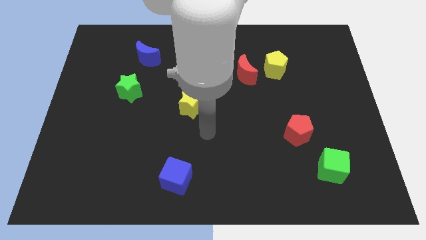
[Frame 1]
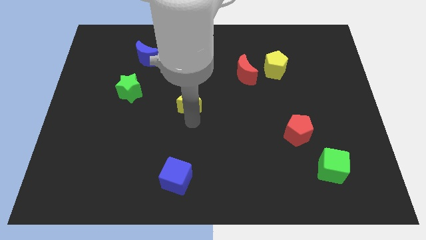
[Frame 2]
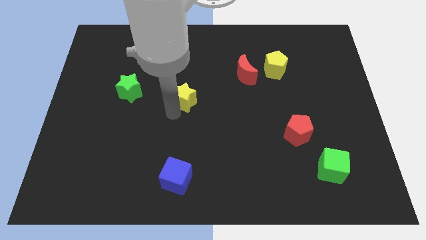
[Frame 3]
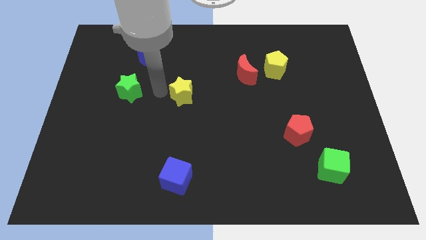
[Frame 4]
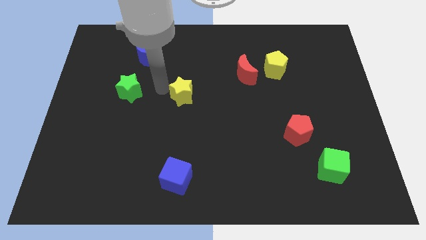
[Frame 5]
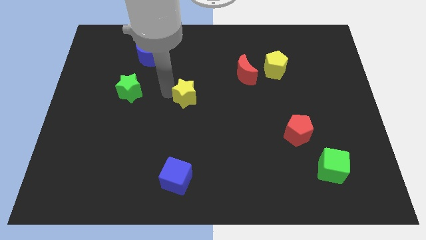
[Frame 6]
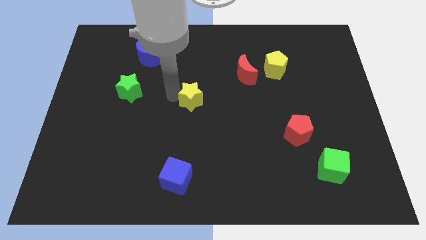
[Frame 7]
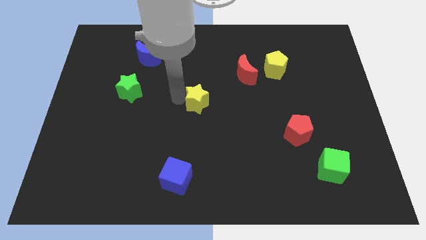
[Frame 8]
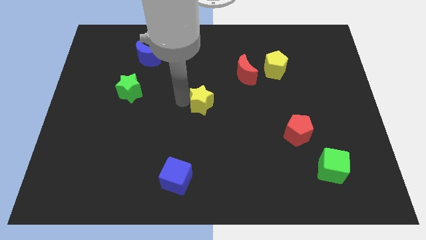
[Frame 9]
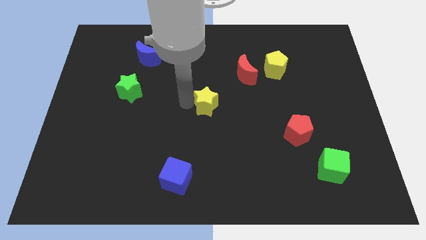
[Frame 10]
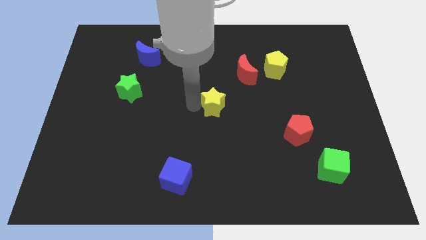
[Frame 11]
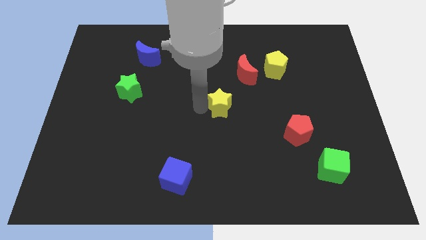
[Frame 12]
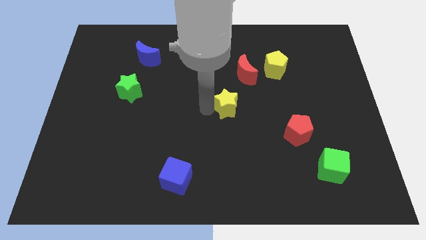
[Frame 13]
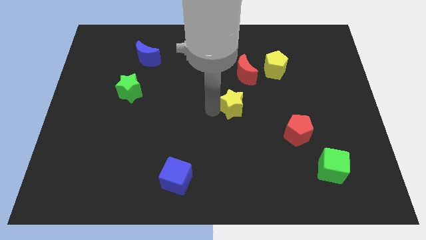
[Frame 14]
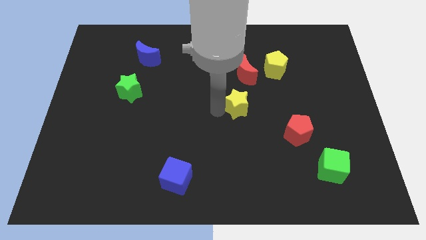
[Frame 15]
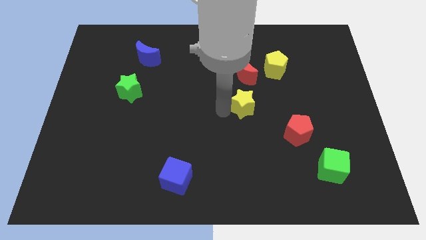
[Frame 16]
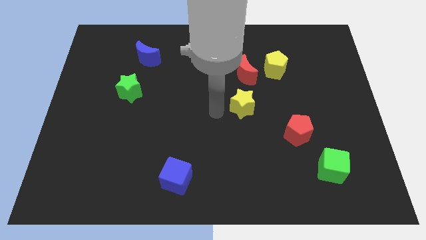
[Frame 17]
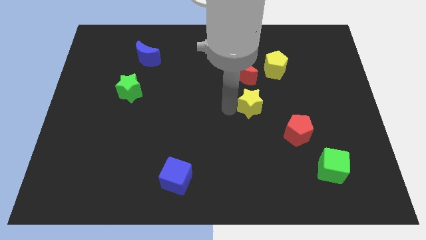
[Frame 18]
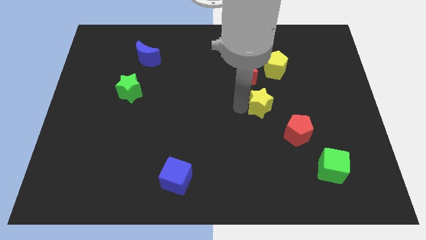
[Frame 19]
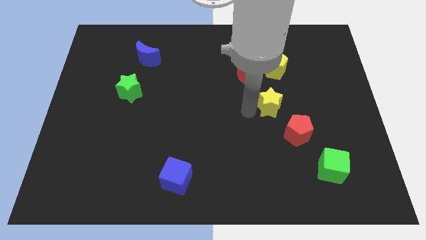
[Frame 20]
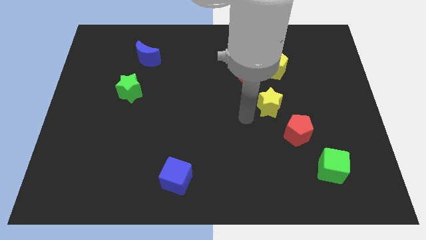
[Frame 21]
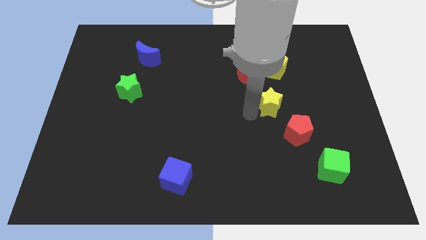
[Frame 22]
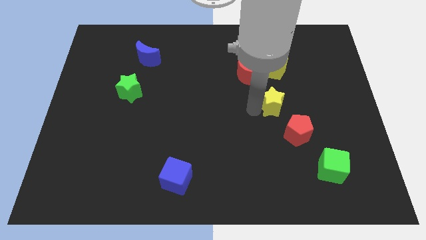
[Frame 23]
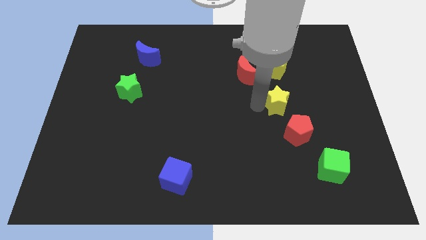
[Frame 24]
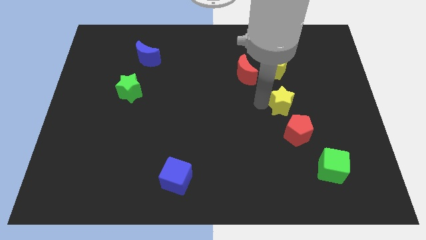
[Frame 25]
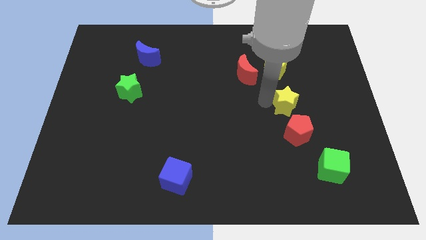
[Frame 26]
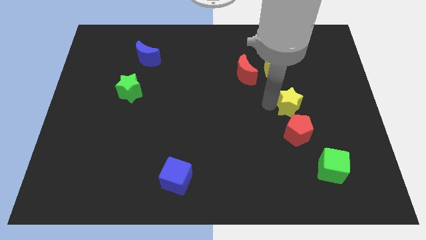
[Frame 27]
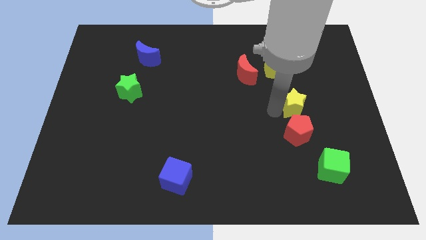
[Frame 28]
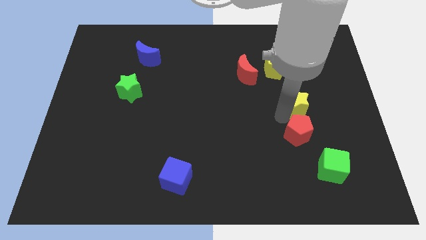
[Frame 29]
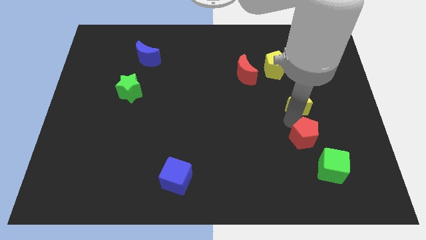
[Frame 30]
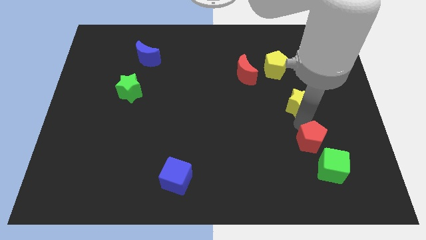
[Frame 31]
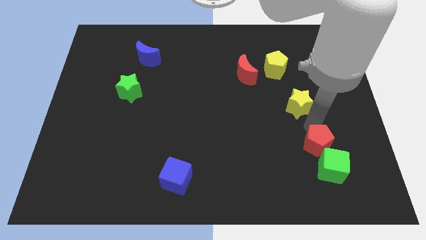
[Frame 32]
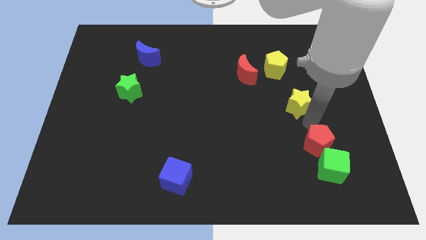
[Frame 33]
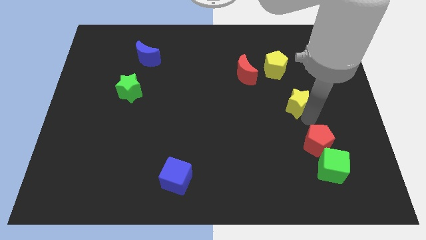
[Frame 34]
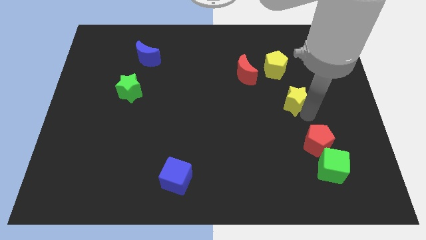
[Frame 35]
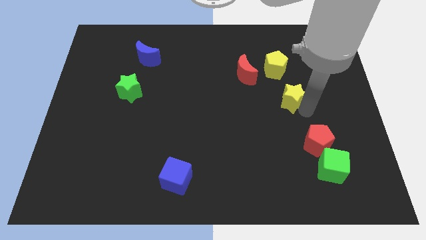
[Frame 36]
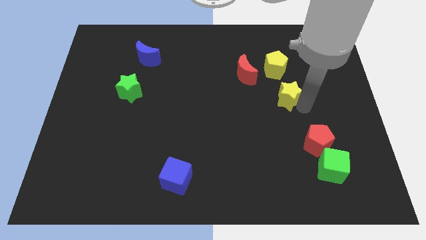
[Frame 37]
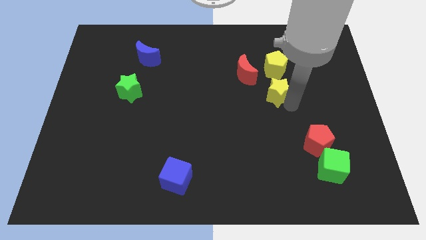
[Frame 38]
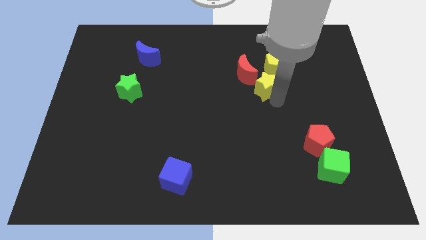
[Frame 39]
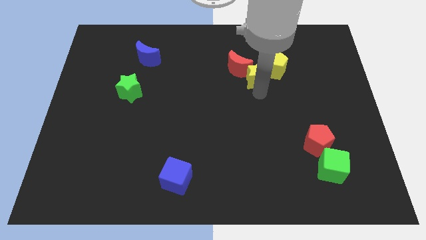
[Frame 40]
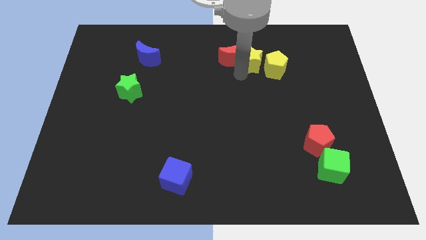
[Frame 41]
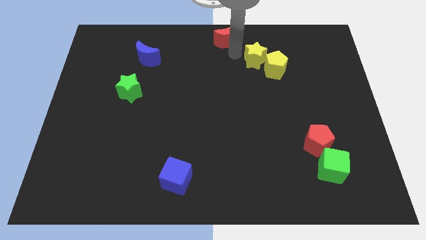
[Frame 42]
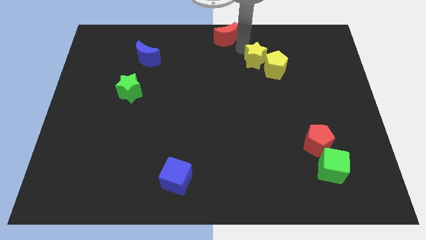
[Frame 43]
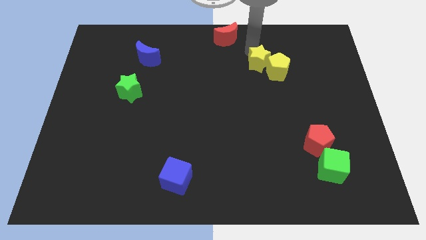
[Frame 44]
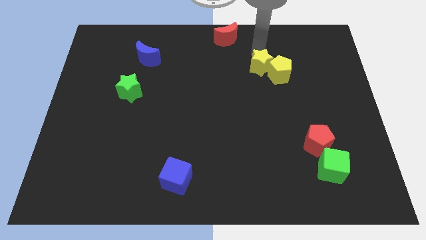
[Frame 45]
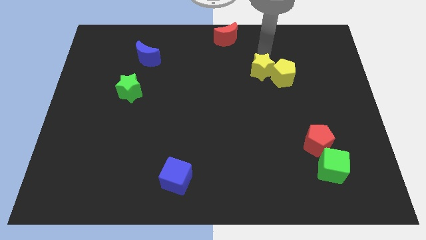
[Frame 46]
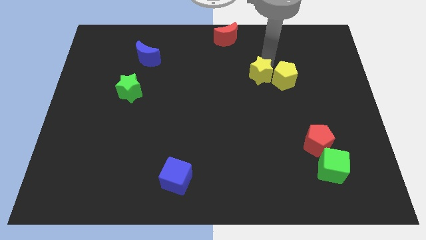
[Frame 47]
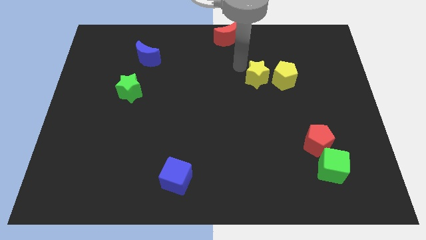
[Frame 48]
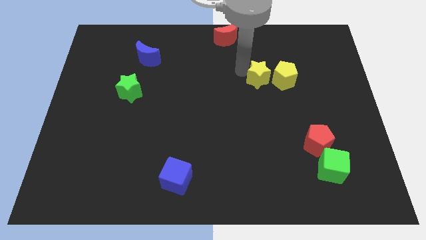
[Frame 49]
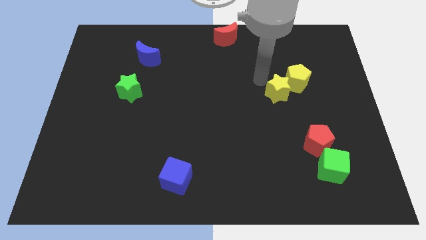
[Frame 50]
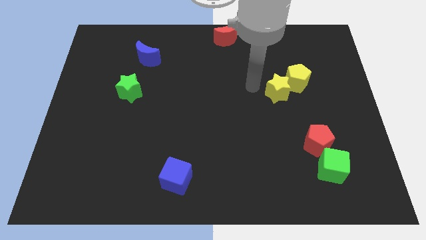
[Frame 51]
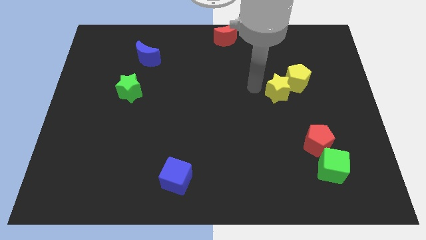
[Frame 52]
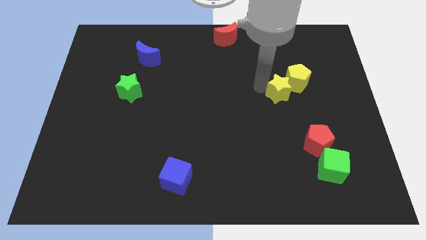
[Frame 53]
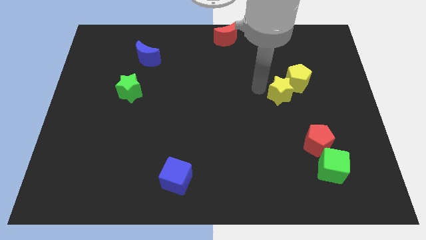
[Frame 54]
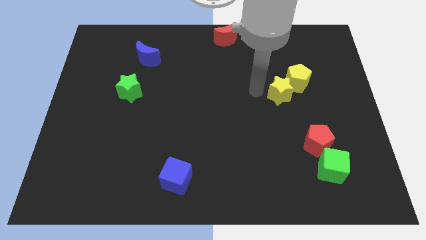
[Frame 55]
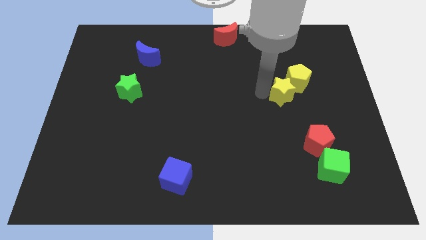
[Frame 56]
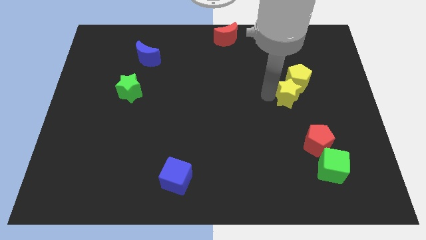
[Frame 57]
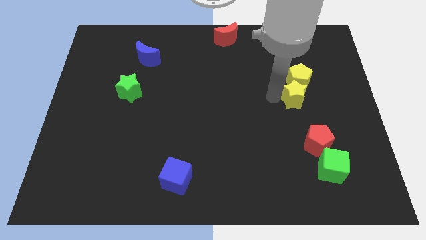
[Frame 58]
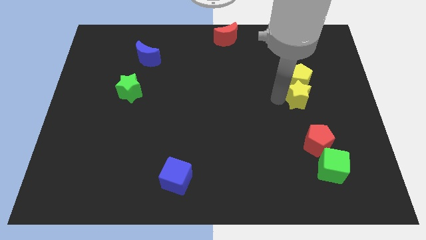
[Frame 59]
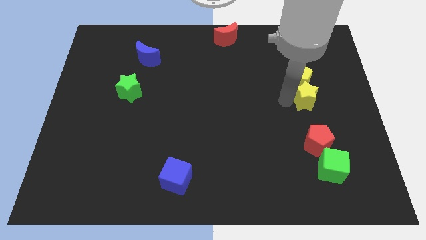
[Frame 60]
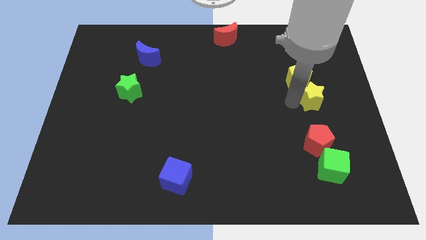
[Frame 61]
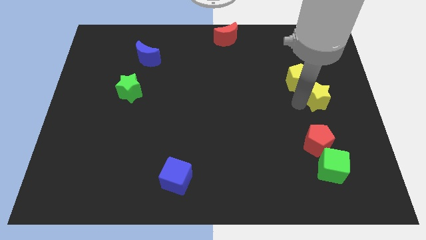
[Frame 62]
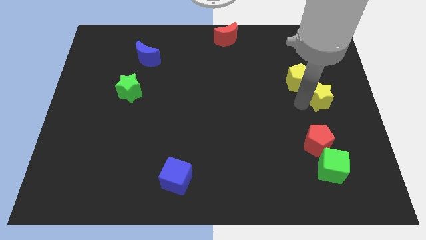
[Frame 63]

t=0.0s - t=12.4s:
put the yellow star to the right side of the board

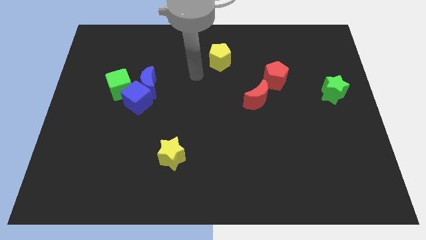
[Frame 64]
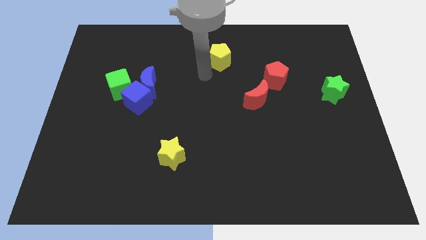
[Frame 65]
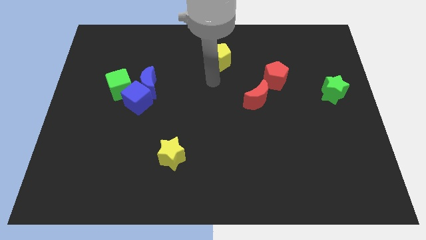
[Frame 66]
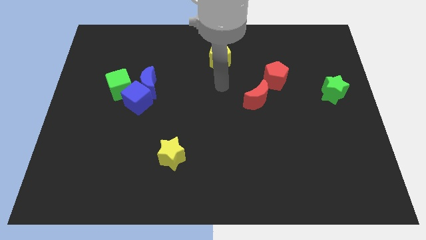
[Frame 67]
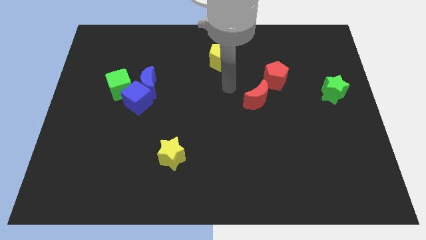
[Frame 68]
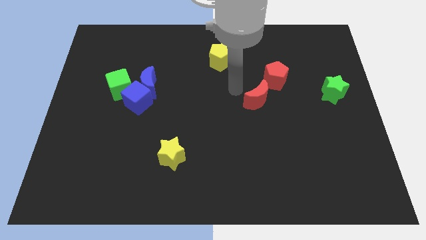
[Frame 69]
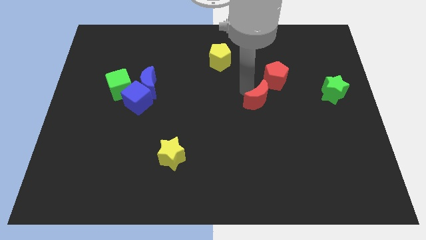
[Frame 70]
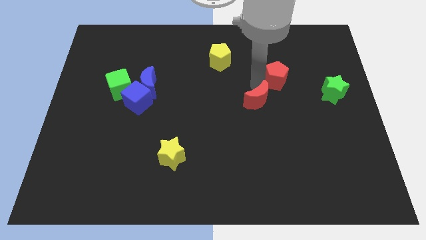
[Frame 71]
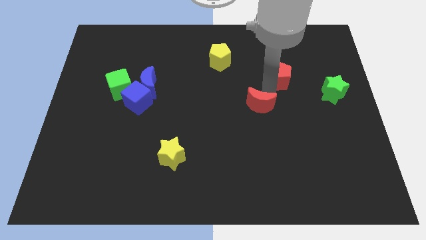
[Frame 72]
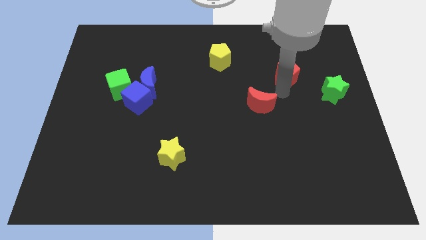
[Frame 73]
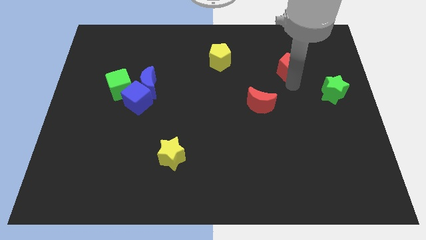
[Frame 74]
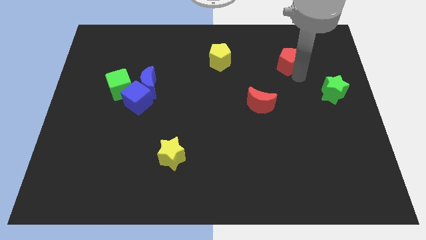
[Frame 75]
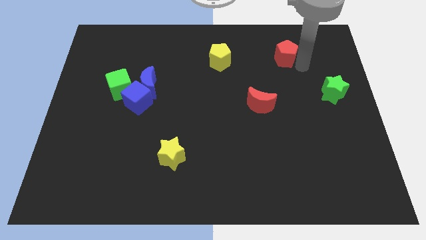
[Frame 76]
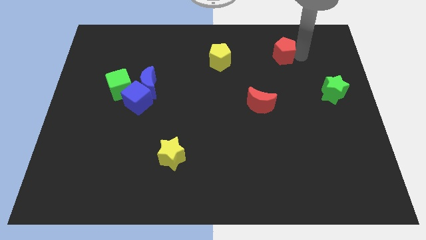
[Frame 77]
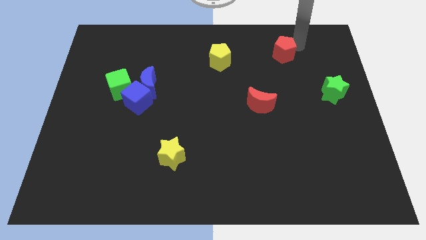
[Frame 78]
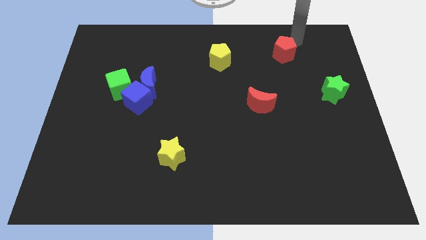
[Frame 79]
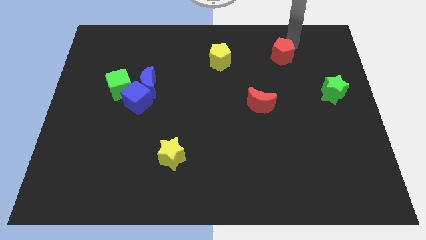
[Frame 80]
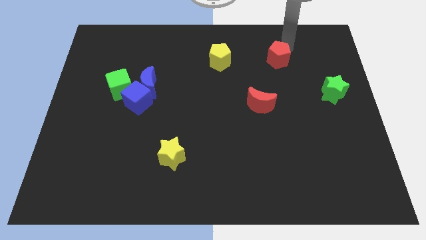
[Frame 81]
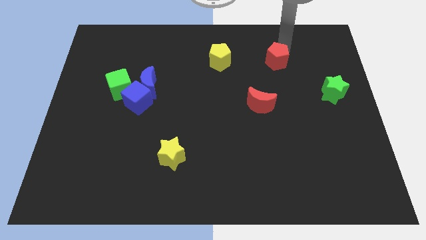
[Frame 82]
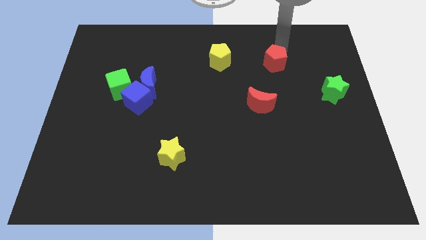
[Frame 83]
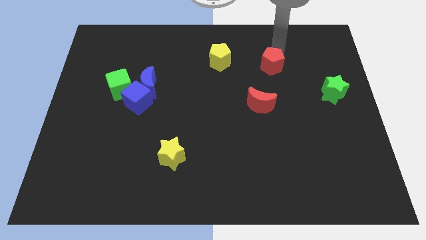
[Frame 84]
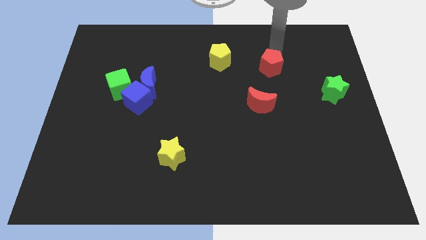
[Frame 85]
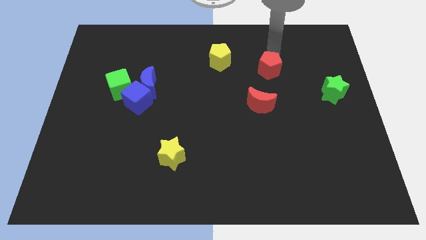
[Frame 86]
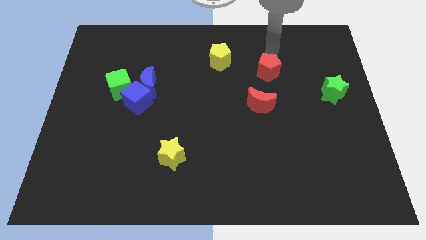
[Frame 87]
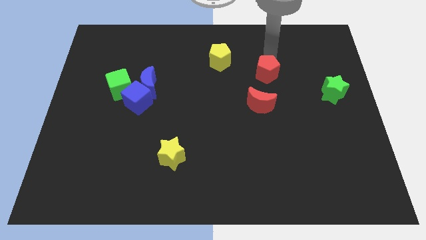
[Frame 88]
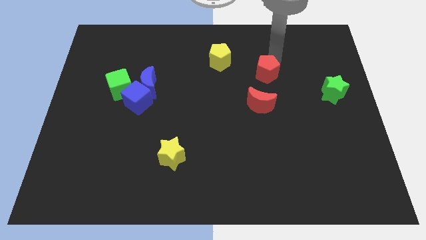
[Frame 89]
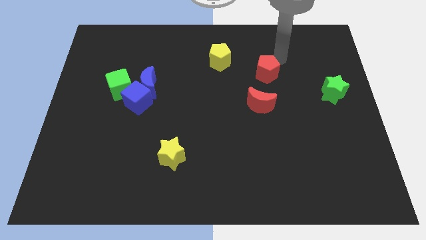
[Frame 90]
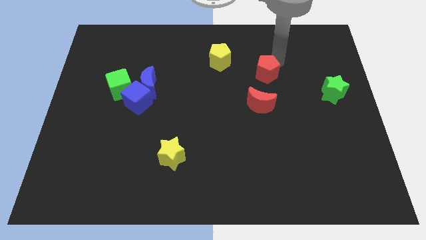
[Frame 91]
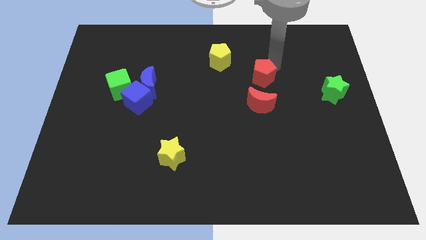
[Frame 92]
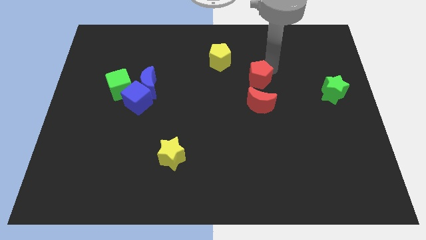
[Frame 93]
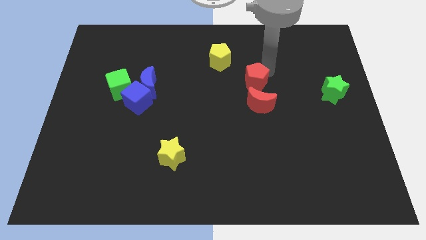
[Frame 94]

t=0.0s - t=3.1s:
move the red pentagon to the center
